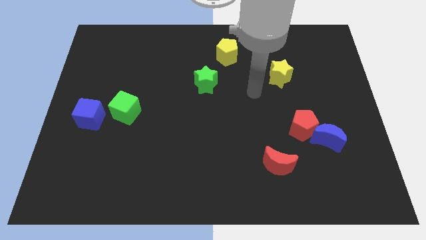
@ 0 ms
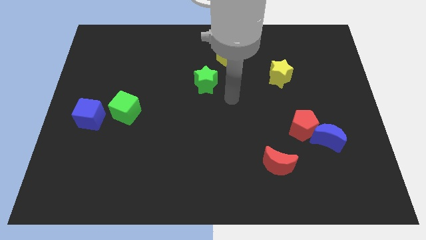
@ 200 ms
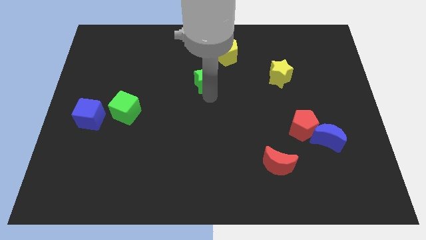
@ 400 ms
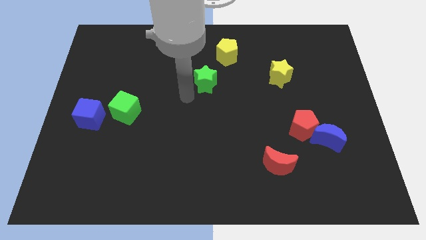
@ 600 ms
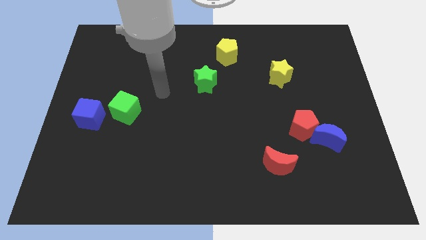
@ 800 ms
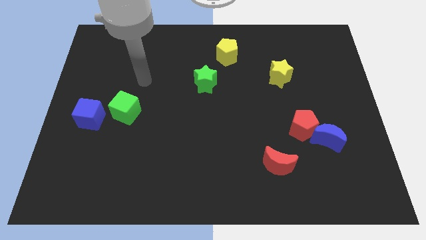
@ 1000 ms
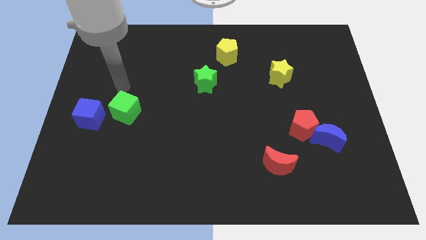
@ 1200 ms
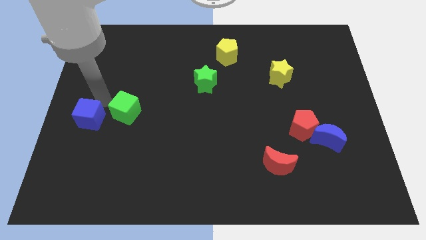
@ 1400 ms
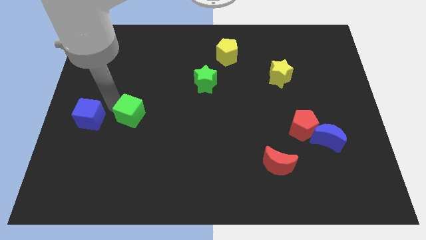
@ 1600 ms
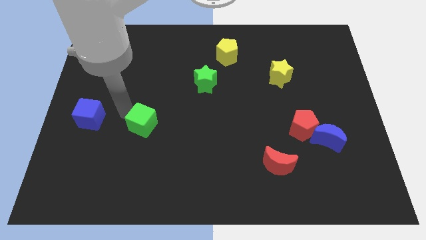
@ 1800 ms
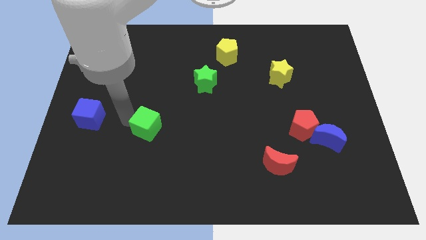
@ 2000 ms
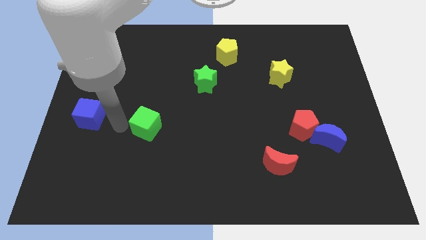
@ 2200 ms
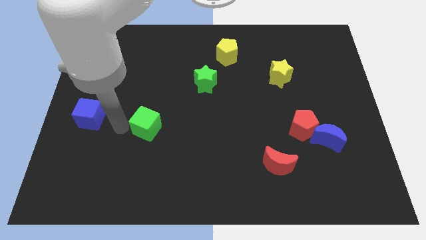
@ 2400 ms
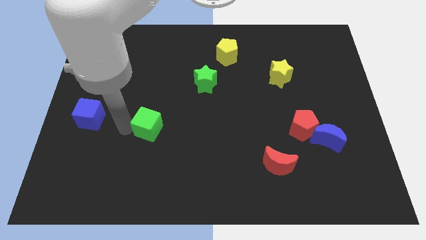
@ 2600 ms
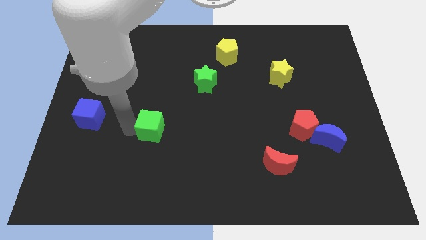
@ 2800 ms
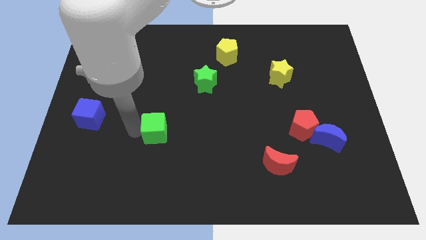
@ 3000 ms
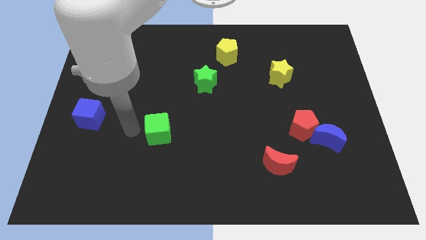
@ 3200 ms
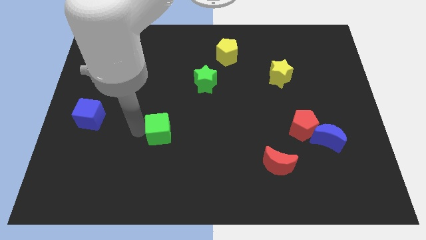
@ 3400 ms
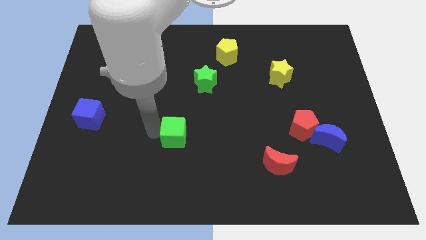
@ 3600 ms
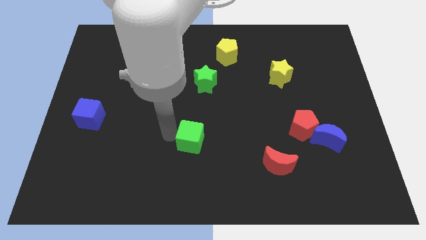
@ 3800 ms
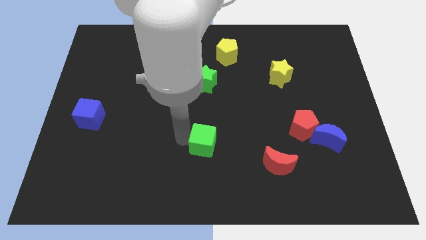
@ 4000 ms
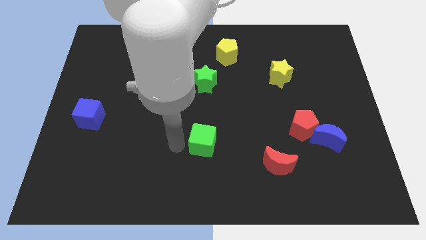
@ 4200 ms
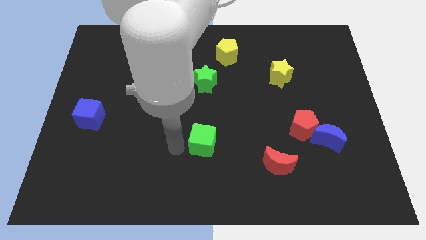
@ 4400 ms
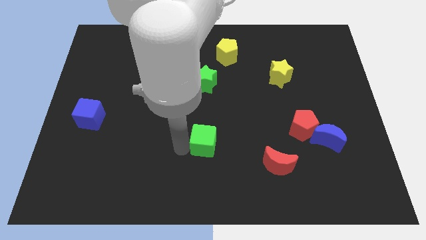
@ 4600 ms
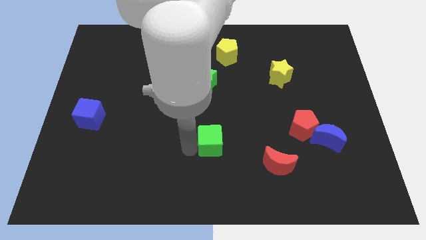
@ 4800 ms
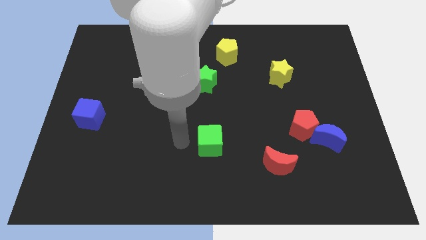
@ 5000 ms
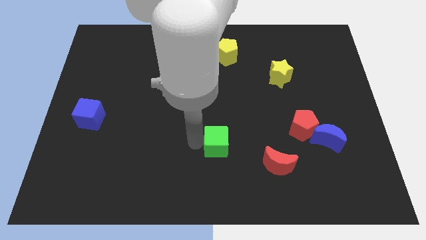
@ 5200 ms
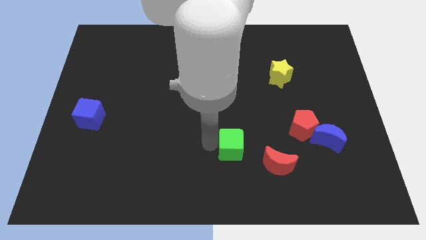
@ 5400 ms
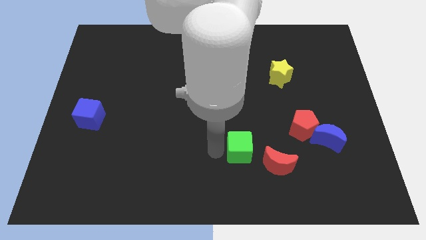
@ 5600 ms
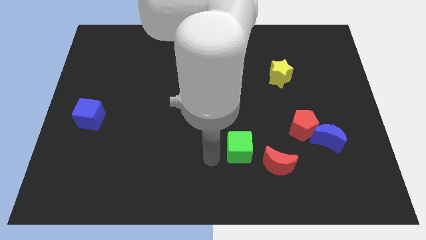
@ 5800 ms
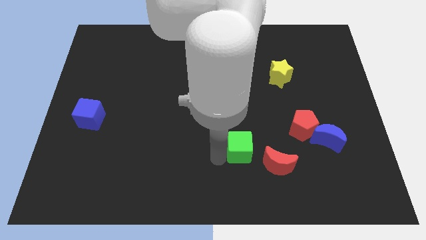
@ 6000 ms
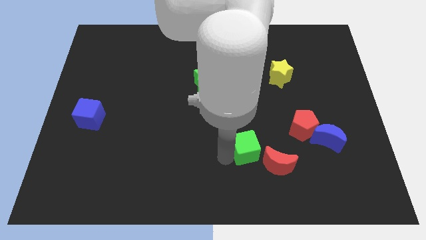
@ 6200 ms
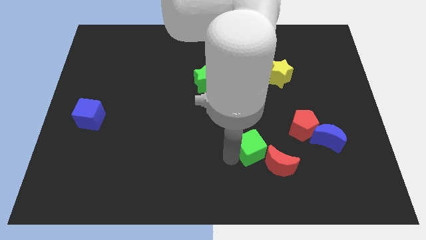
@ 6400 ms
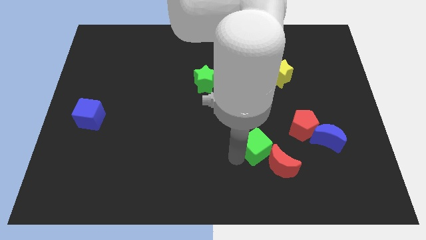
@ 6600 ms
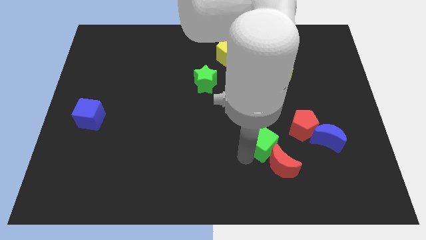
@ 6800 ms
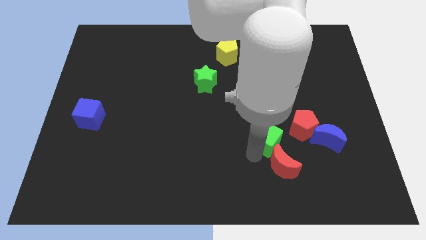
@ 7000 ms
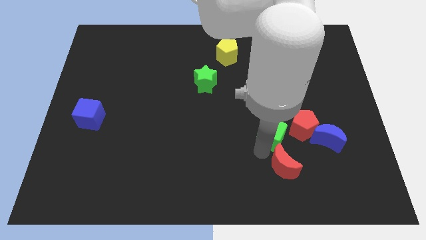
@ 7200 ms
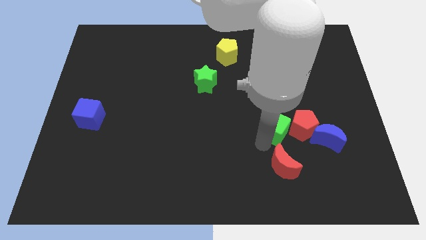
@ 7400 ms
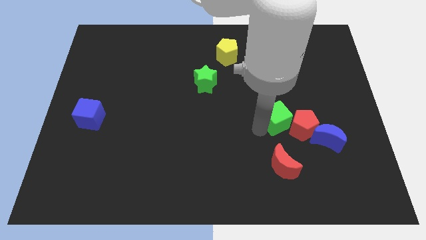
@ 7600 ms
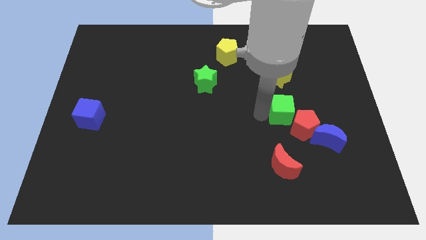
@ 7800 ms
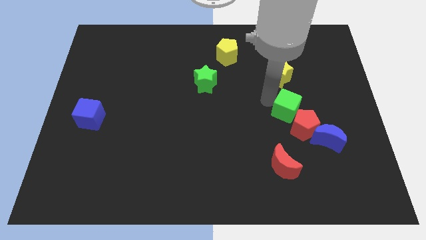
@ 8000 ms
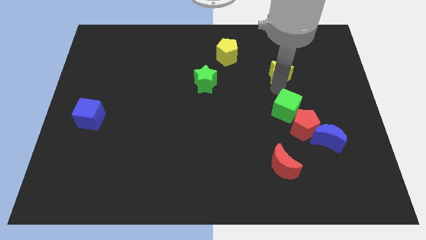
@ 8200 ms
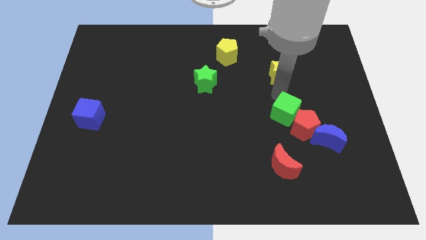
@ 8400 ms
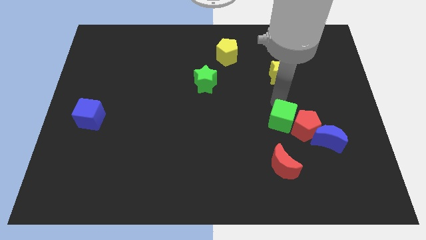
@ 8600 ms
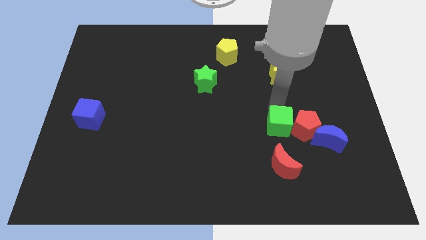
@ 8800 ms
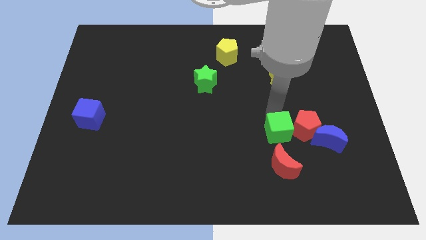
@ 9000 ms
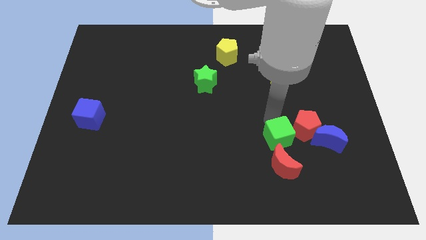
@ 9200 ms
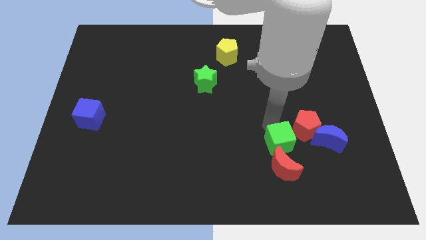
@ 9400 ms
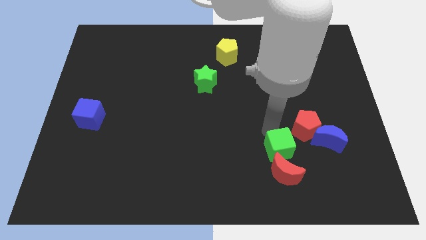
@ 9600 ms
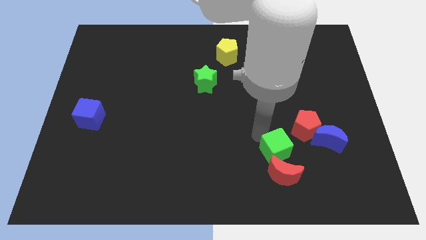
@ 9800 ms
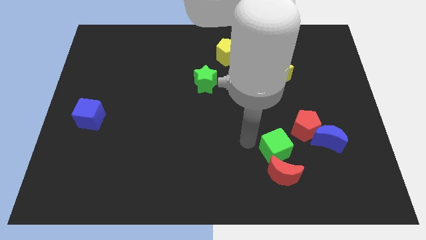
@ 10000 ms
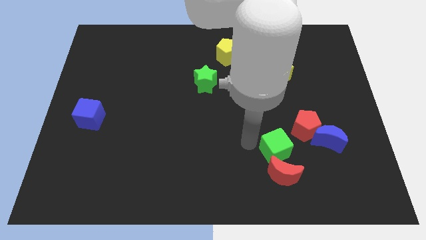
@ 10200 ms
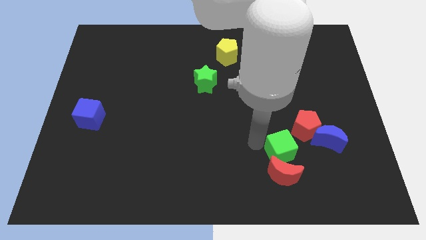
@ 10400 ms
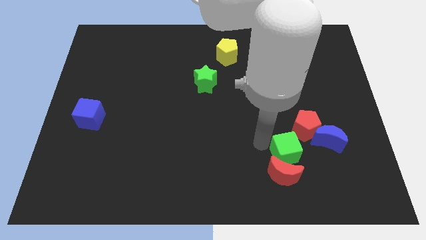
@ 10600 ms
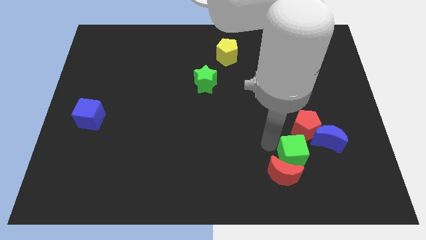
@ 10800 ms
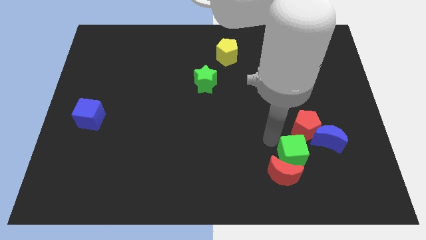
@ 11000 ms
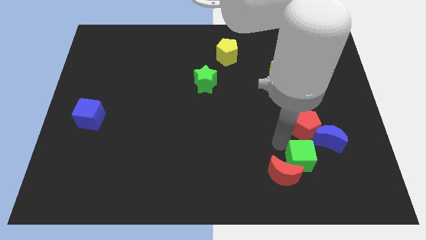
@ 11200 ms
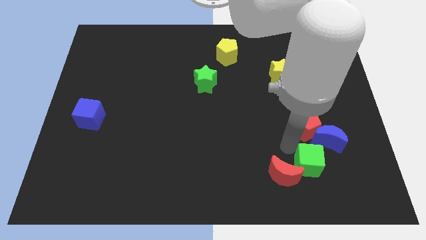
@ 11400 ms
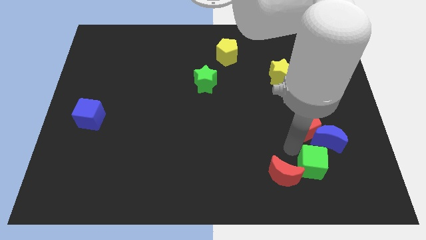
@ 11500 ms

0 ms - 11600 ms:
push the green cube to the bottom of the blue moon

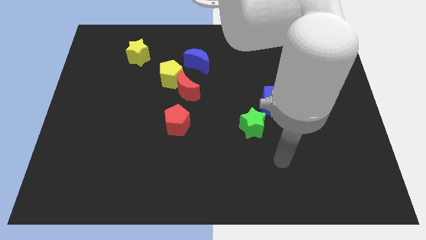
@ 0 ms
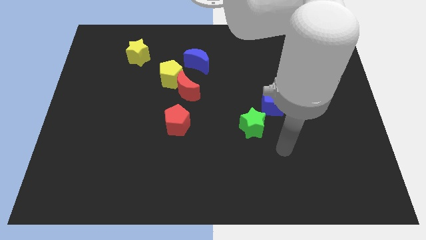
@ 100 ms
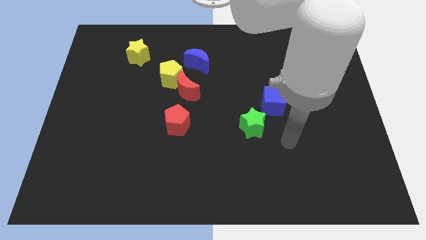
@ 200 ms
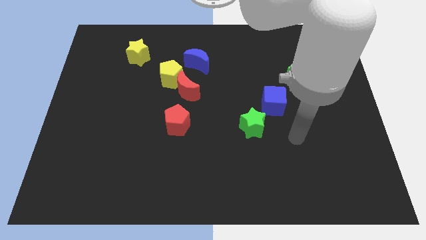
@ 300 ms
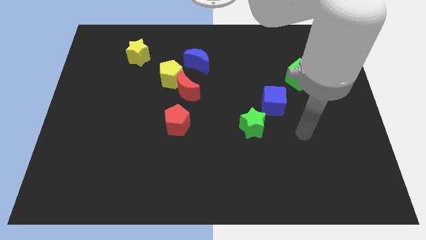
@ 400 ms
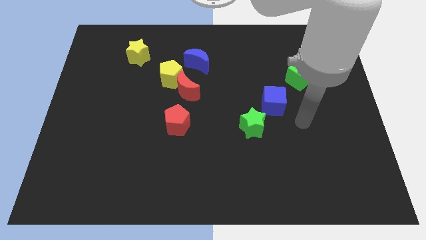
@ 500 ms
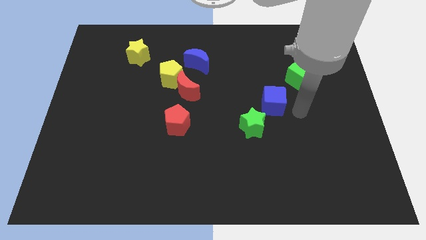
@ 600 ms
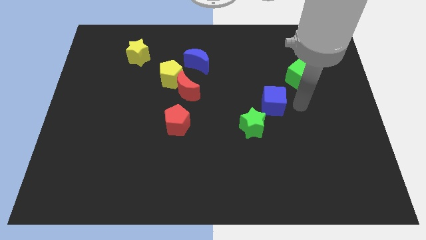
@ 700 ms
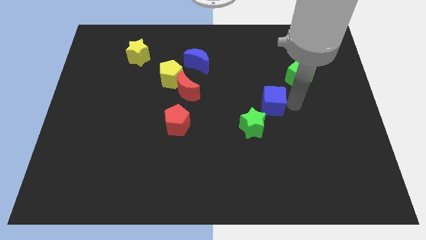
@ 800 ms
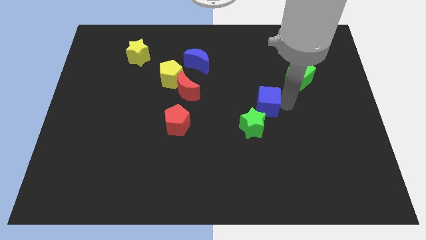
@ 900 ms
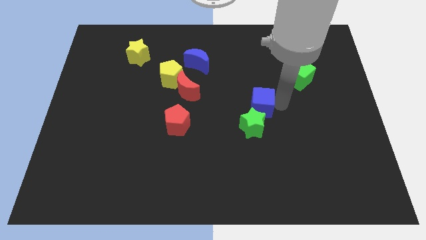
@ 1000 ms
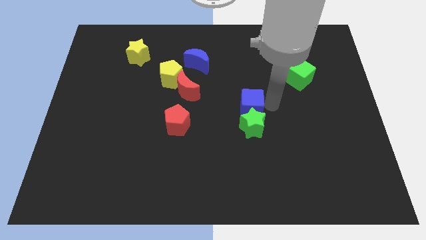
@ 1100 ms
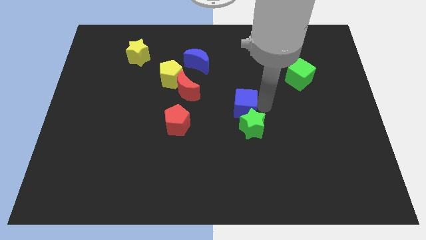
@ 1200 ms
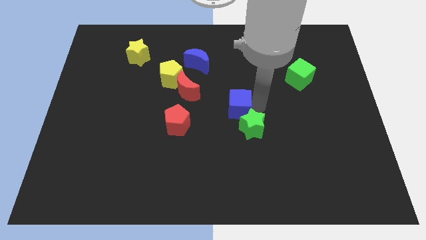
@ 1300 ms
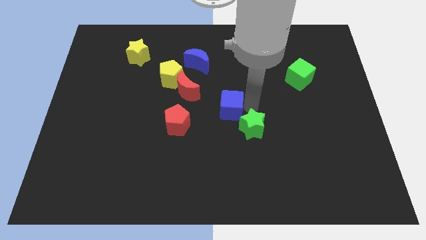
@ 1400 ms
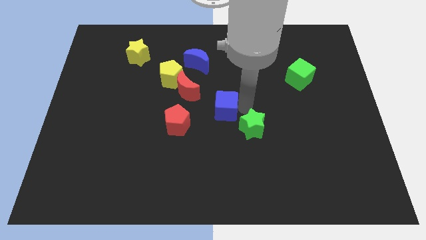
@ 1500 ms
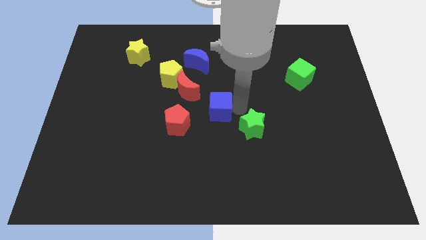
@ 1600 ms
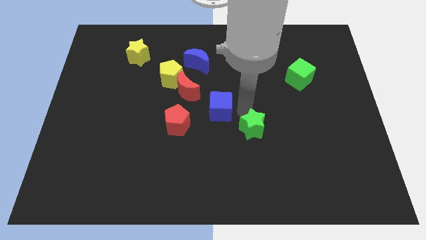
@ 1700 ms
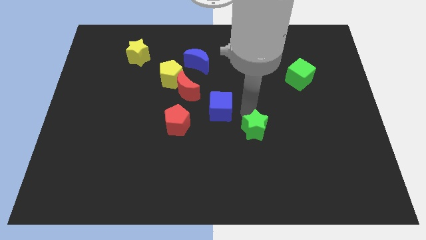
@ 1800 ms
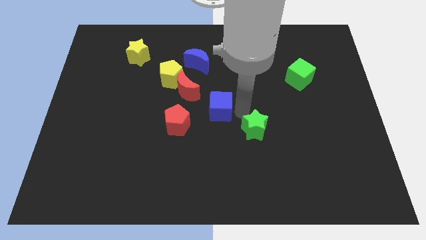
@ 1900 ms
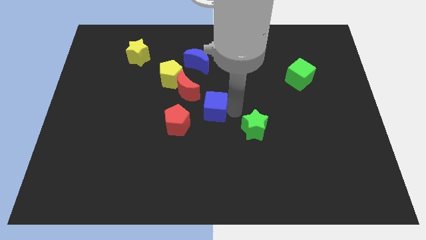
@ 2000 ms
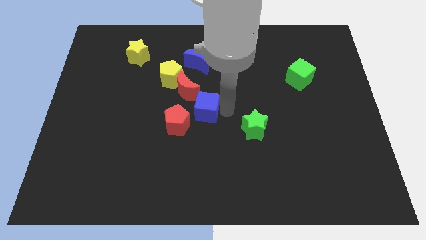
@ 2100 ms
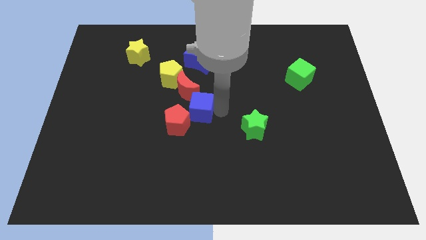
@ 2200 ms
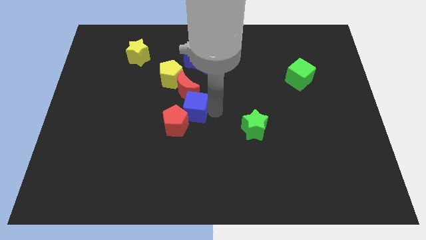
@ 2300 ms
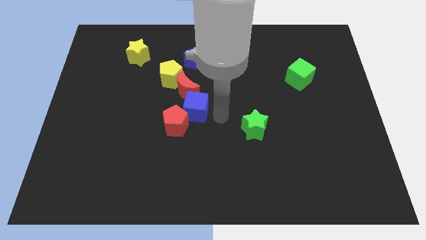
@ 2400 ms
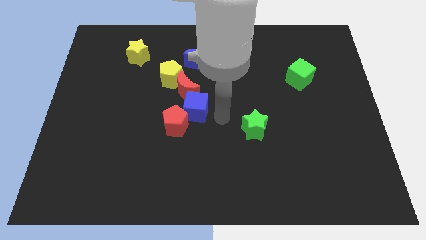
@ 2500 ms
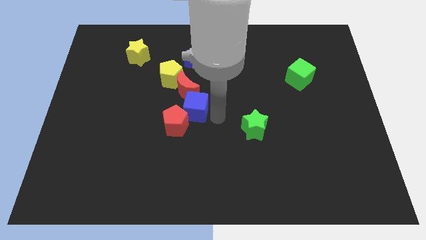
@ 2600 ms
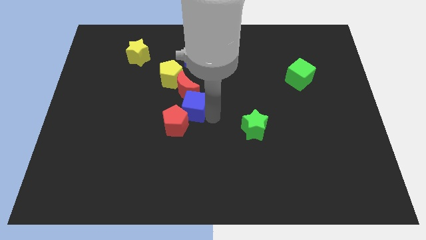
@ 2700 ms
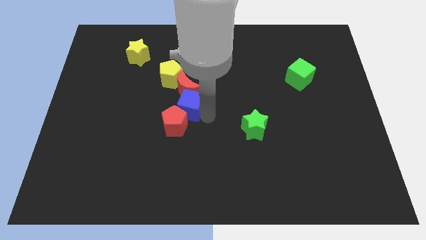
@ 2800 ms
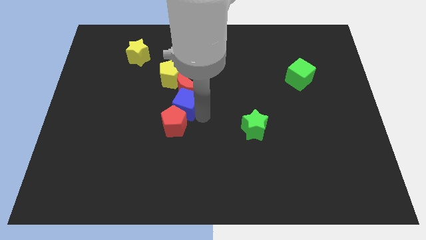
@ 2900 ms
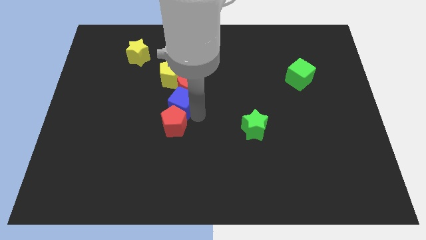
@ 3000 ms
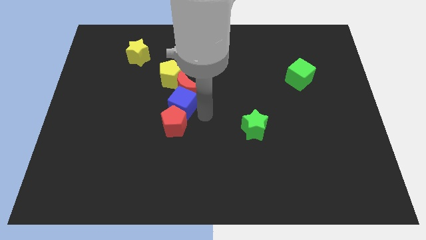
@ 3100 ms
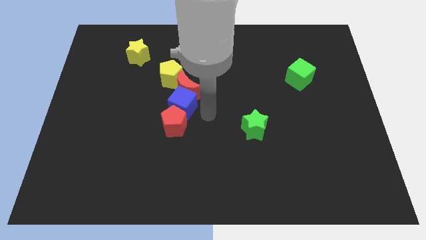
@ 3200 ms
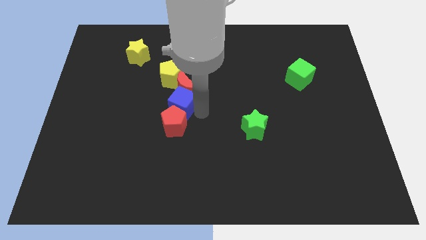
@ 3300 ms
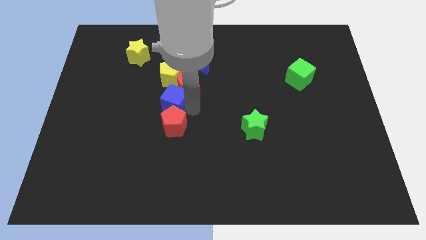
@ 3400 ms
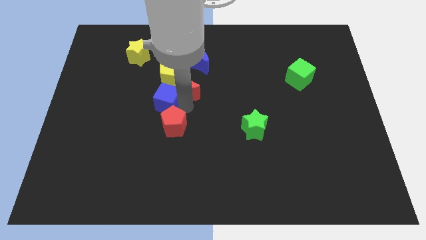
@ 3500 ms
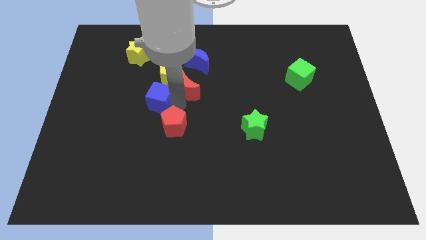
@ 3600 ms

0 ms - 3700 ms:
push the blue cube to the bottom left side of the yellow pentagon
